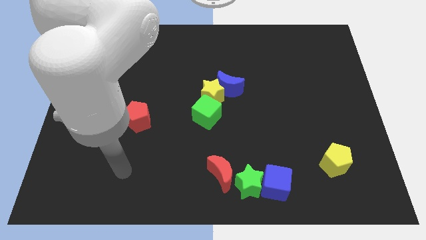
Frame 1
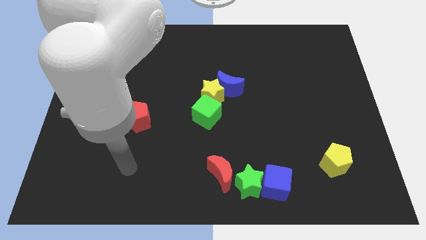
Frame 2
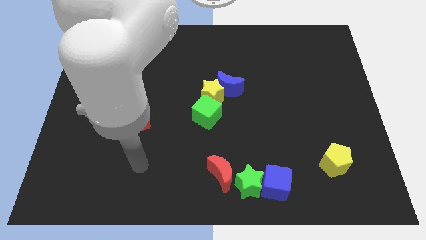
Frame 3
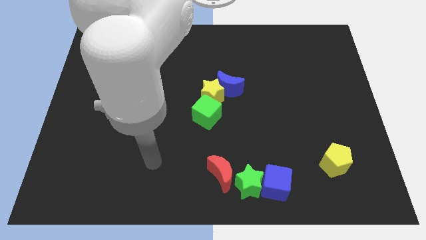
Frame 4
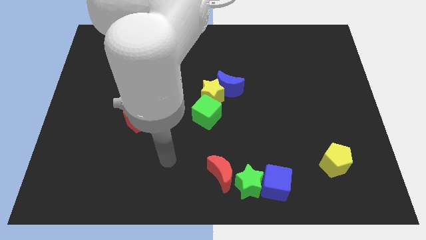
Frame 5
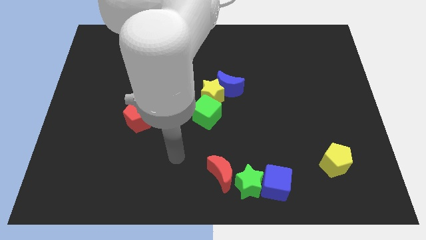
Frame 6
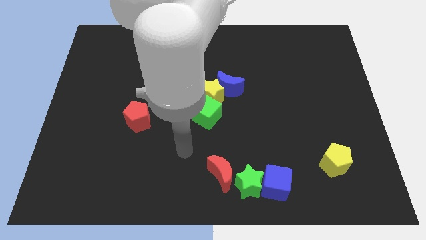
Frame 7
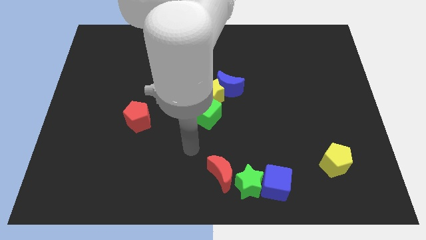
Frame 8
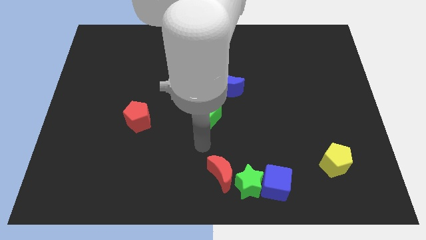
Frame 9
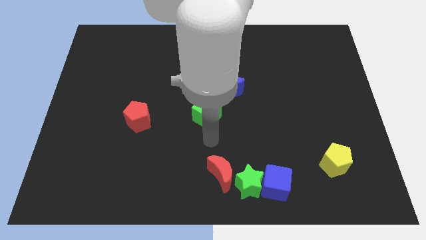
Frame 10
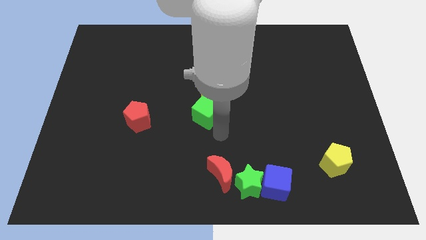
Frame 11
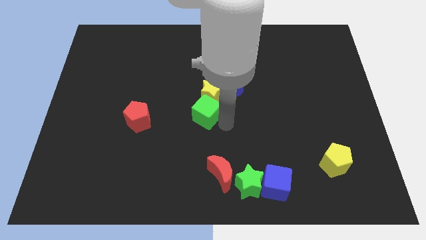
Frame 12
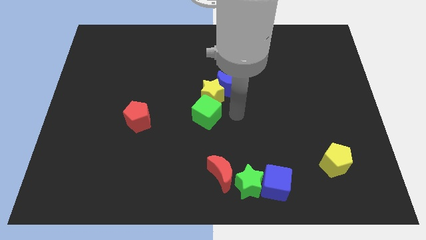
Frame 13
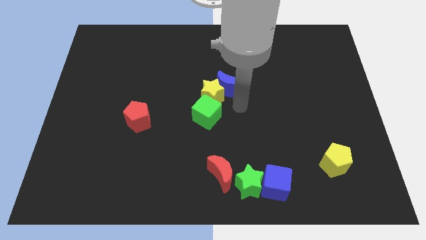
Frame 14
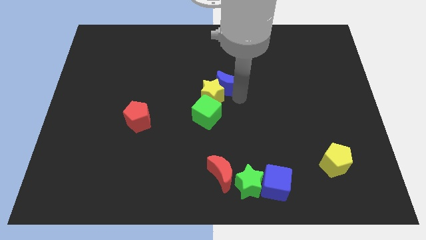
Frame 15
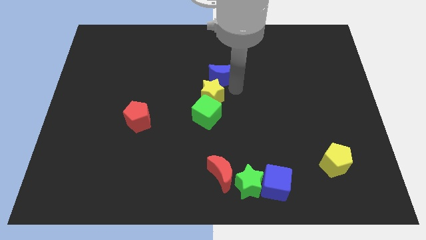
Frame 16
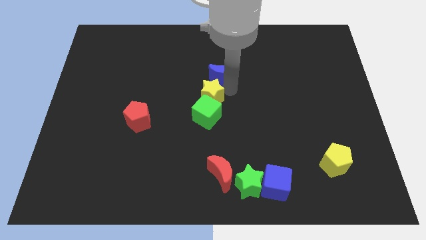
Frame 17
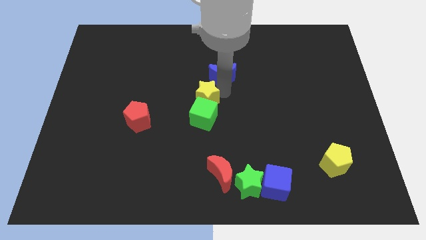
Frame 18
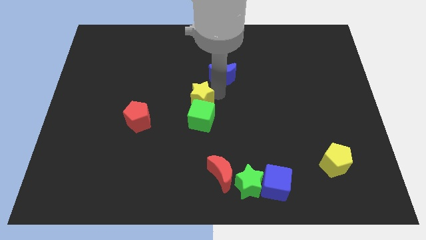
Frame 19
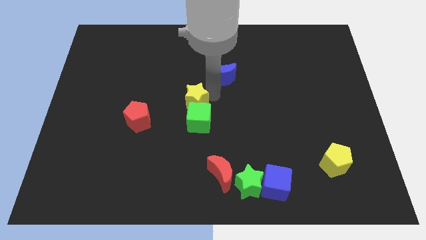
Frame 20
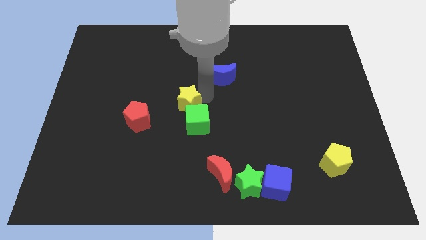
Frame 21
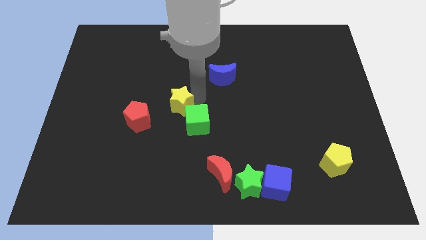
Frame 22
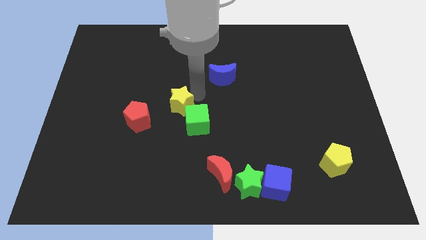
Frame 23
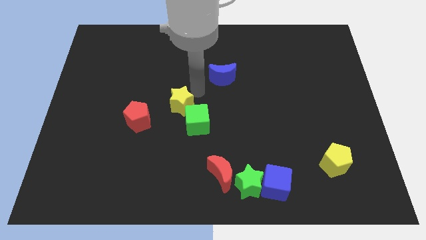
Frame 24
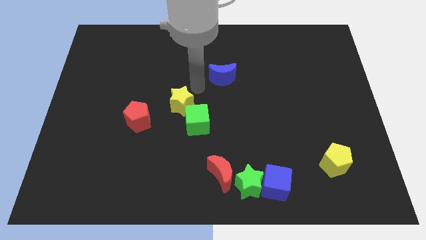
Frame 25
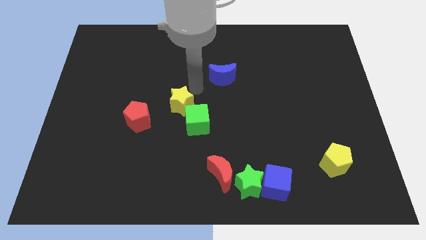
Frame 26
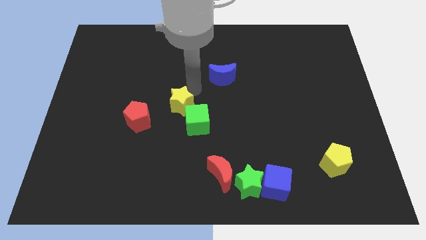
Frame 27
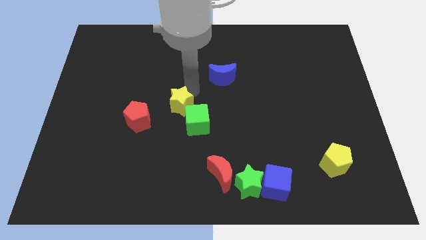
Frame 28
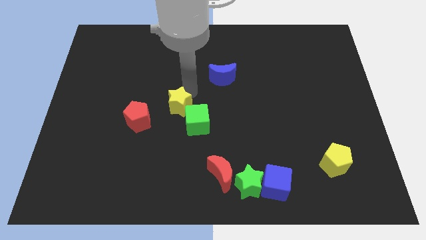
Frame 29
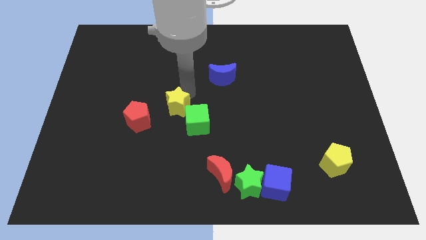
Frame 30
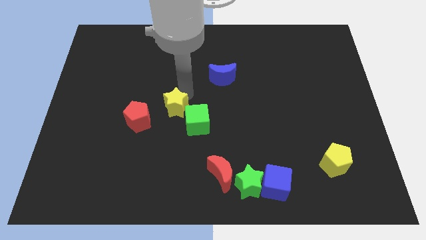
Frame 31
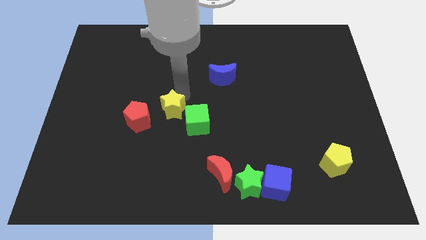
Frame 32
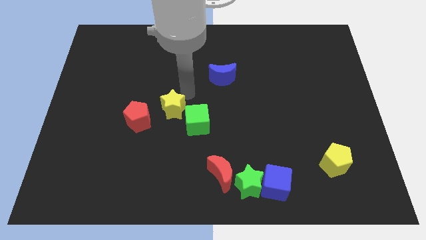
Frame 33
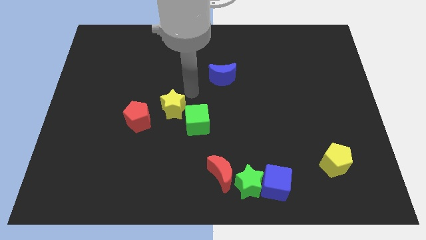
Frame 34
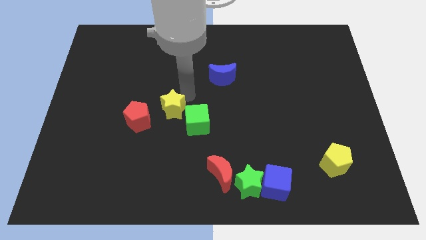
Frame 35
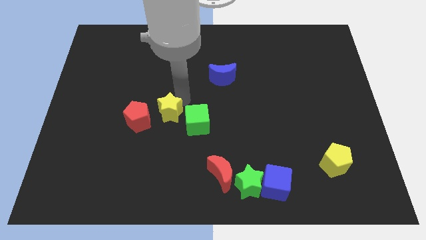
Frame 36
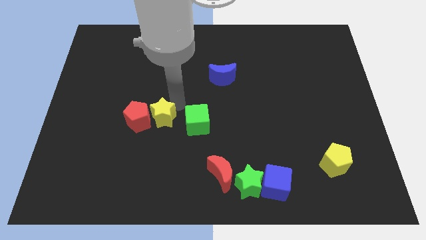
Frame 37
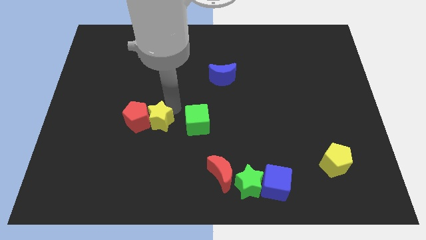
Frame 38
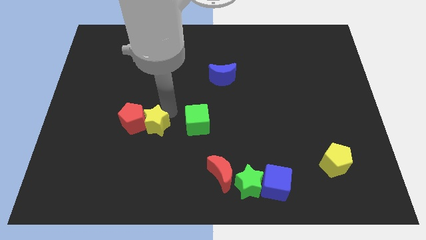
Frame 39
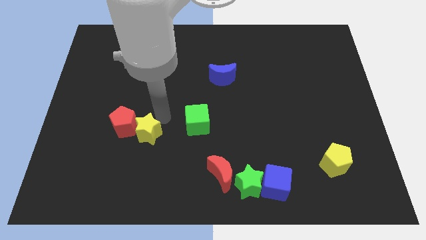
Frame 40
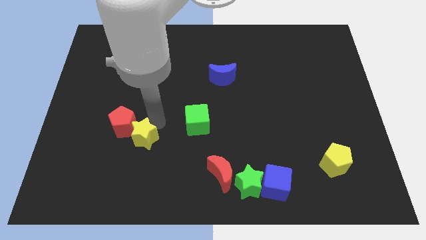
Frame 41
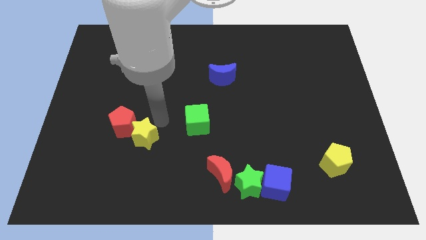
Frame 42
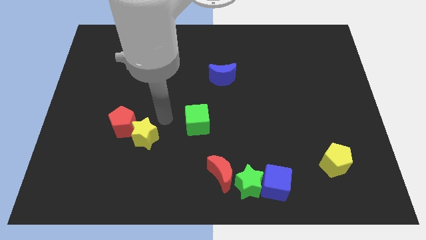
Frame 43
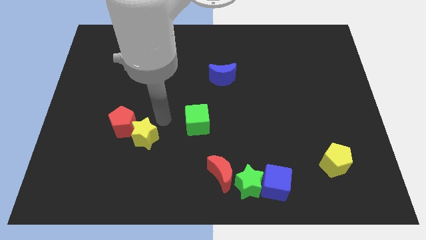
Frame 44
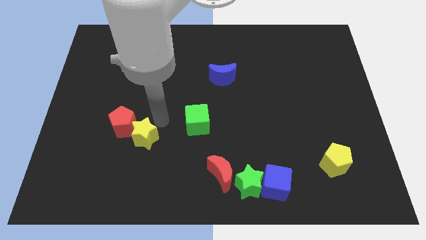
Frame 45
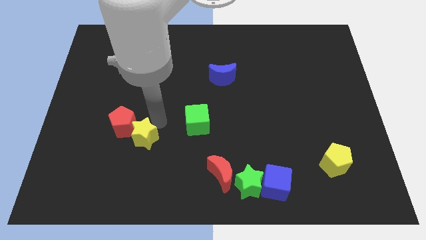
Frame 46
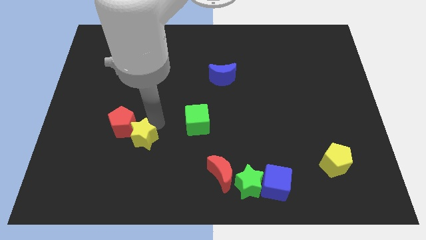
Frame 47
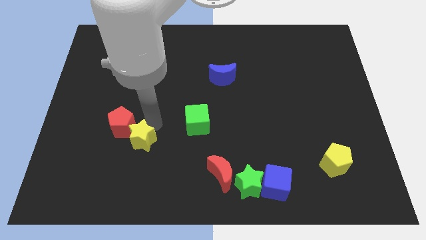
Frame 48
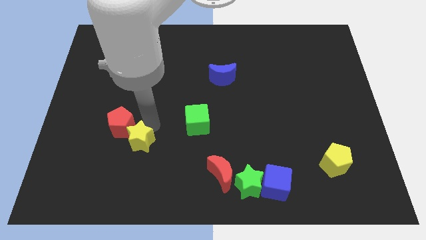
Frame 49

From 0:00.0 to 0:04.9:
slide the yellow star down and to the left

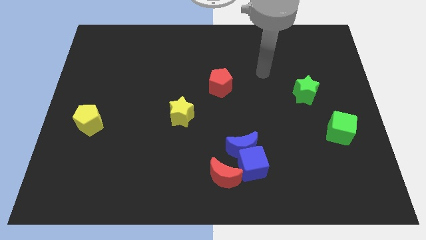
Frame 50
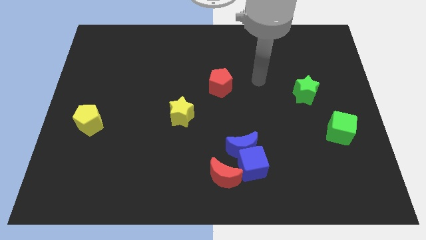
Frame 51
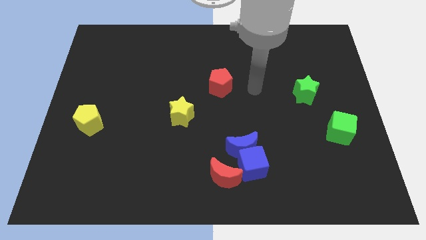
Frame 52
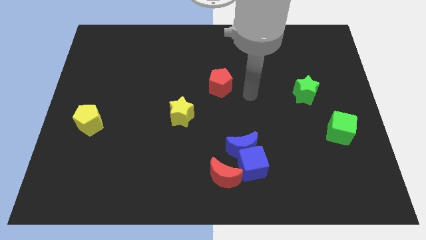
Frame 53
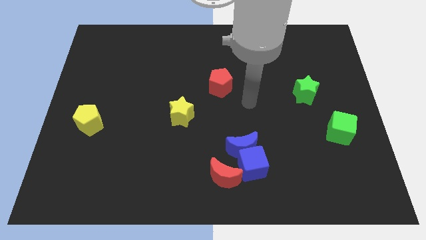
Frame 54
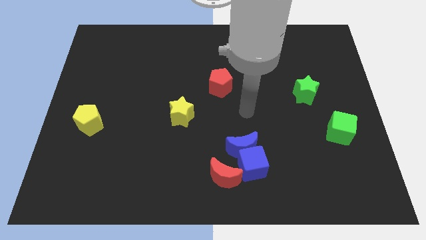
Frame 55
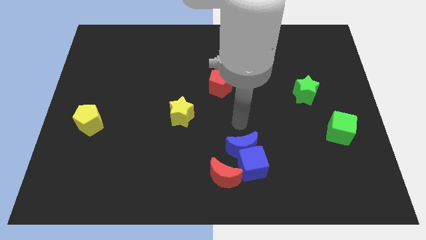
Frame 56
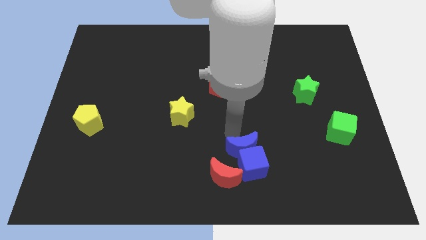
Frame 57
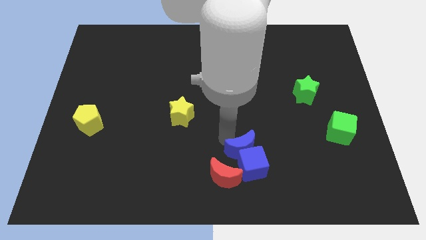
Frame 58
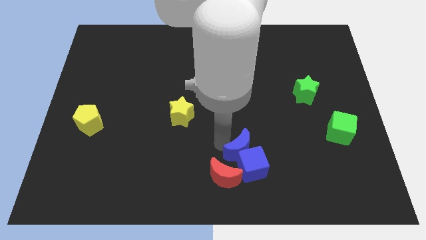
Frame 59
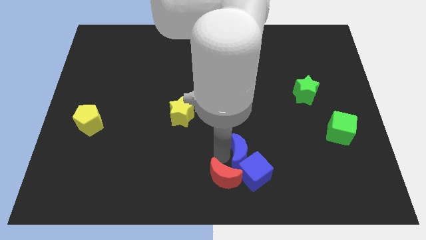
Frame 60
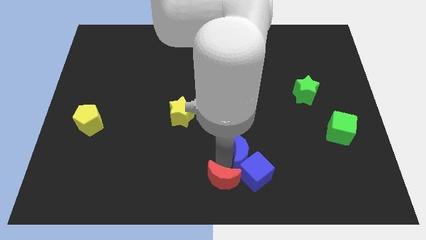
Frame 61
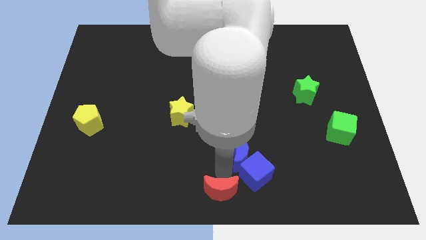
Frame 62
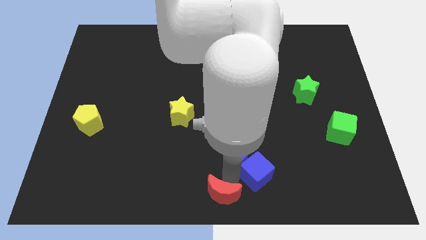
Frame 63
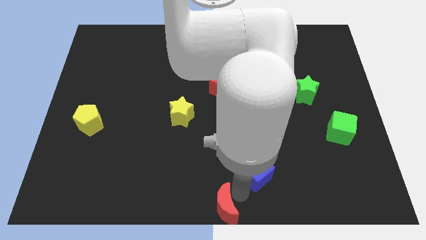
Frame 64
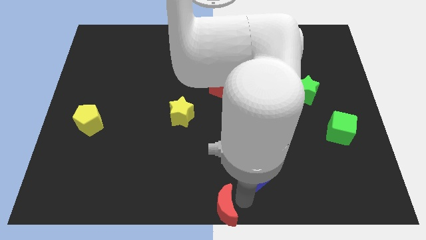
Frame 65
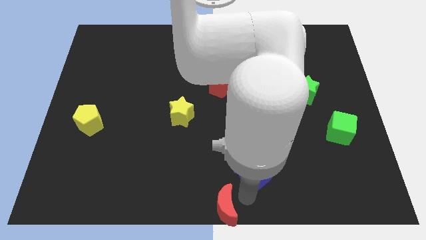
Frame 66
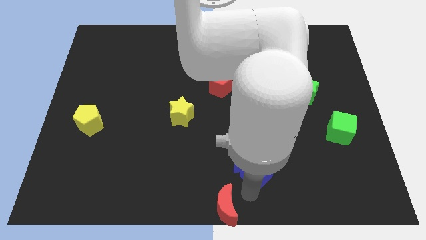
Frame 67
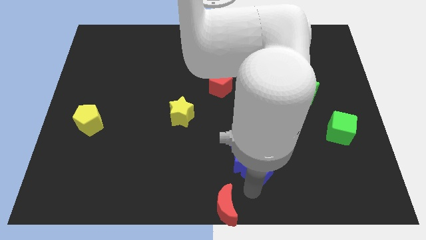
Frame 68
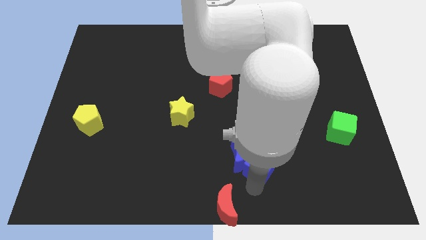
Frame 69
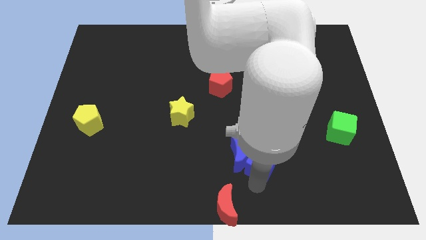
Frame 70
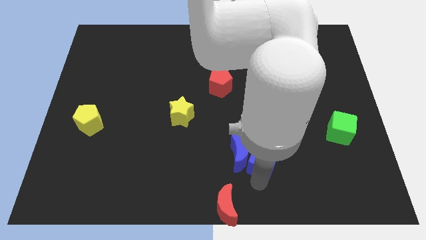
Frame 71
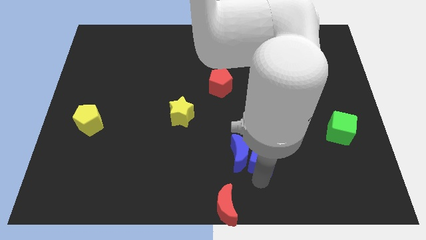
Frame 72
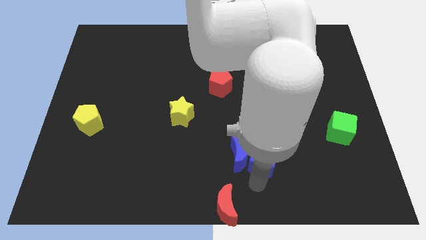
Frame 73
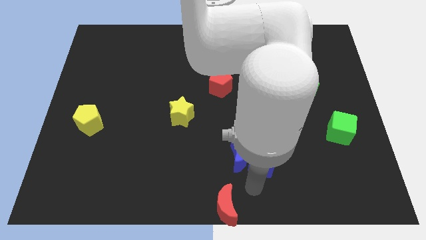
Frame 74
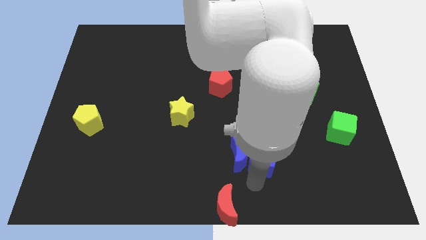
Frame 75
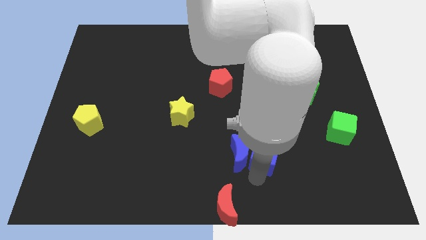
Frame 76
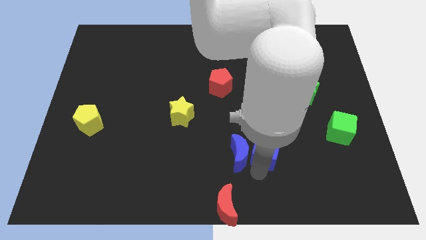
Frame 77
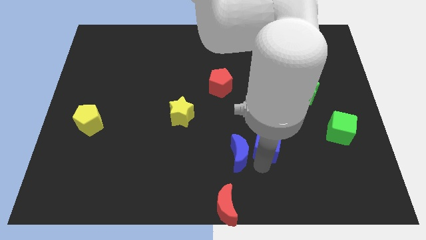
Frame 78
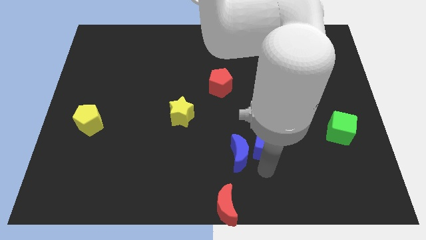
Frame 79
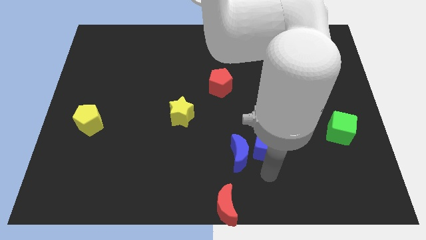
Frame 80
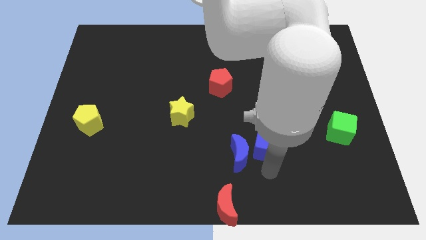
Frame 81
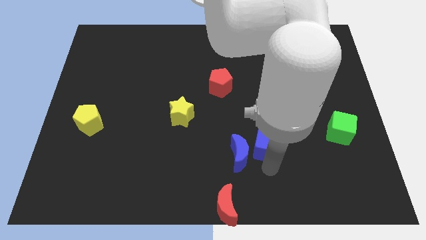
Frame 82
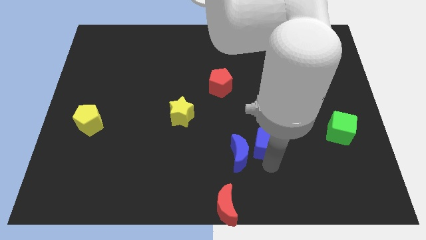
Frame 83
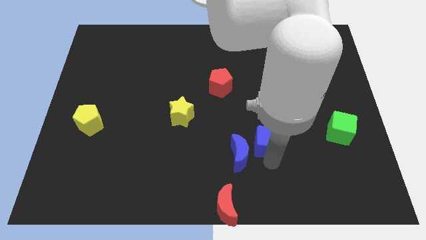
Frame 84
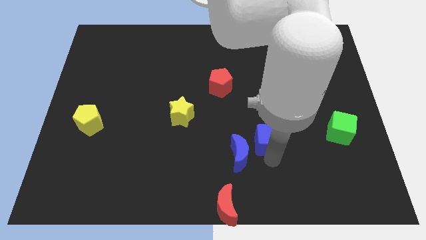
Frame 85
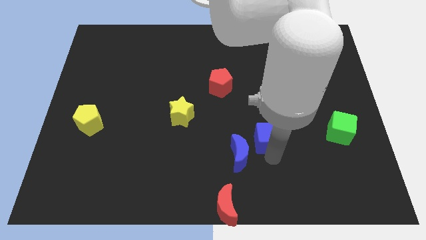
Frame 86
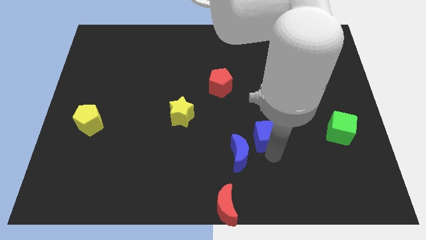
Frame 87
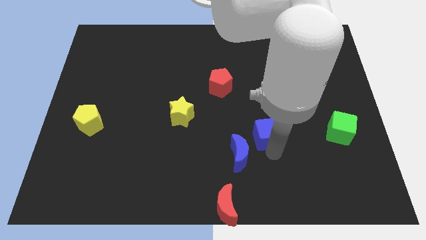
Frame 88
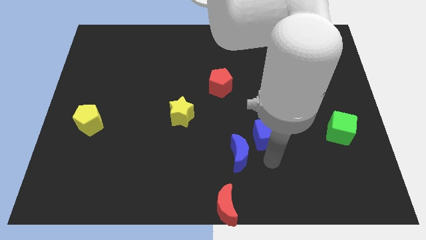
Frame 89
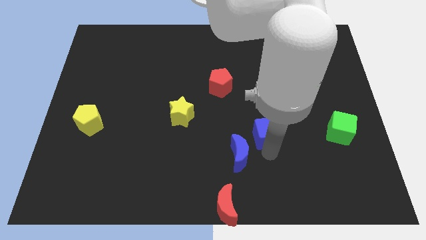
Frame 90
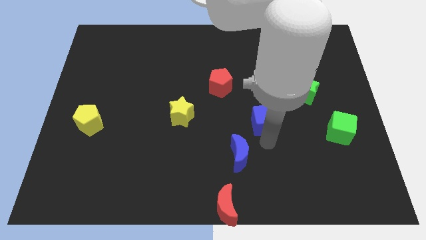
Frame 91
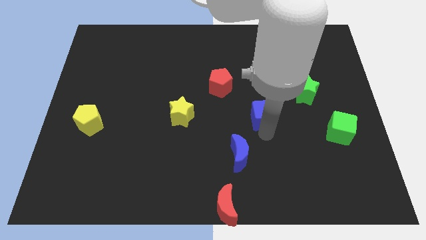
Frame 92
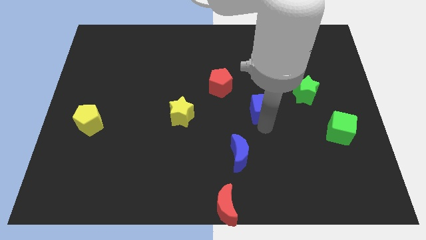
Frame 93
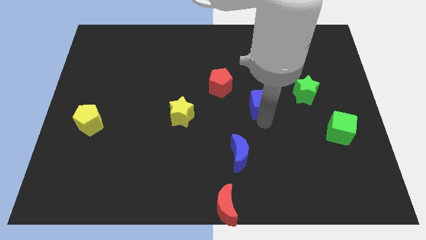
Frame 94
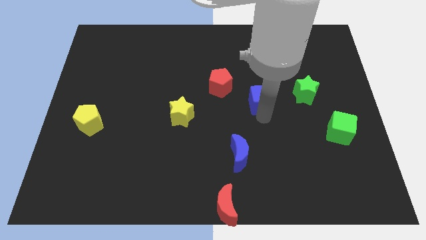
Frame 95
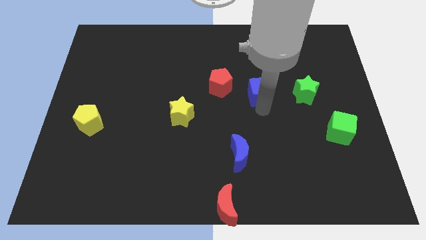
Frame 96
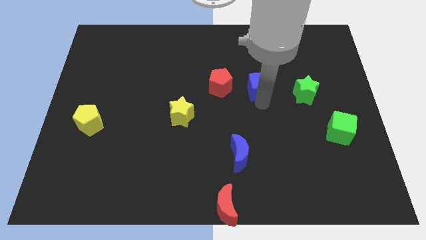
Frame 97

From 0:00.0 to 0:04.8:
push the blue cube upwards
